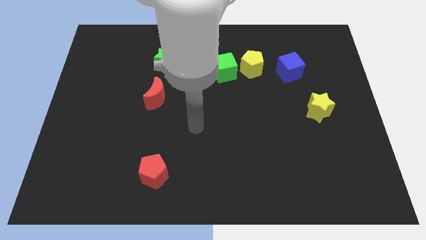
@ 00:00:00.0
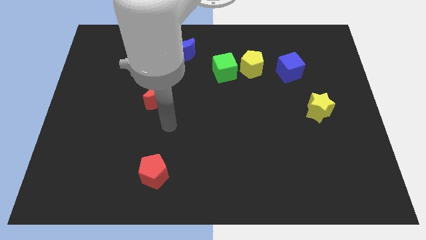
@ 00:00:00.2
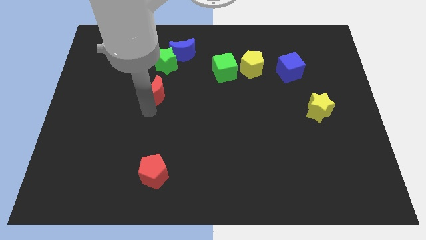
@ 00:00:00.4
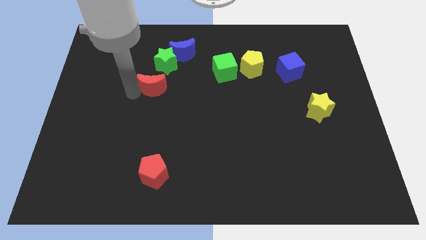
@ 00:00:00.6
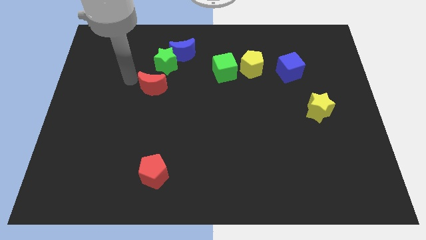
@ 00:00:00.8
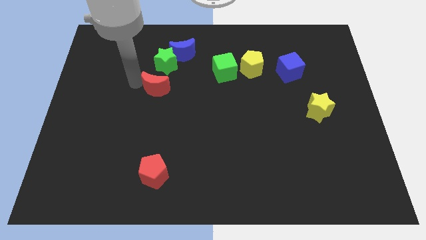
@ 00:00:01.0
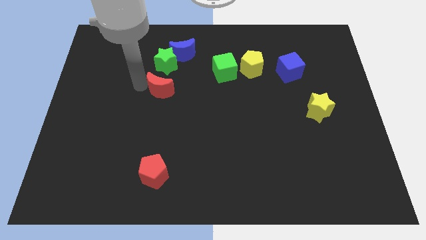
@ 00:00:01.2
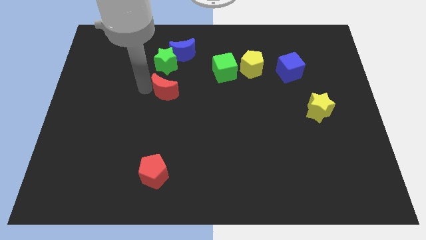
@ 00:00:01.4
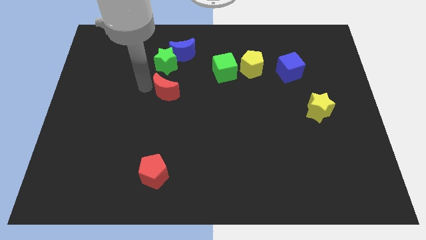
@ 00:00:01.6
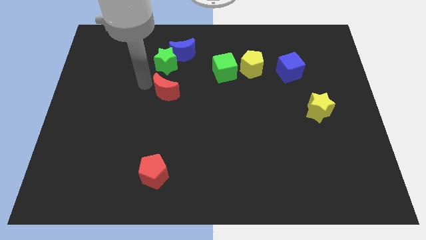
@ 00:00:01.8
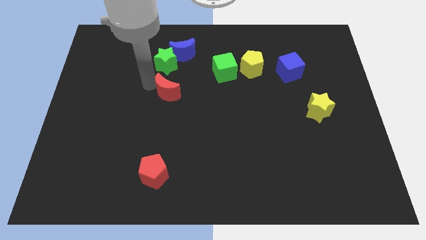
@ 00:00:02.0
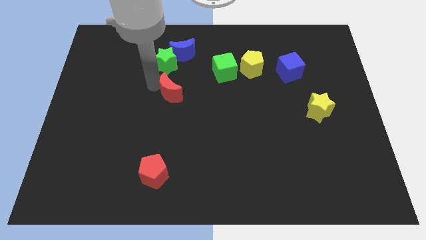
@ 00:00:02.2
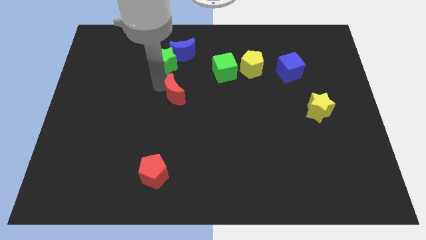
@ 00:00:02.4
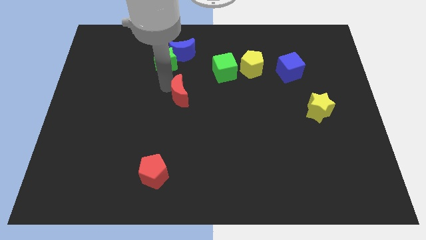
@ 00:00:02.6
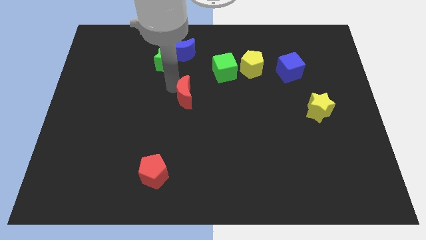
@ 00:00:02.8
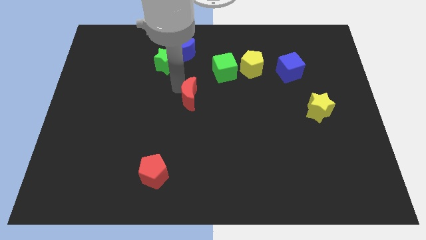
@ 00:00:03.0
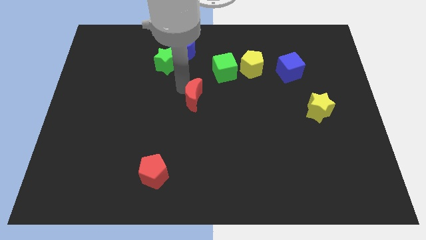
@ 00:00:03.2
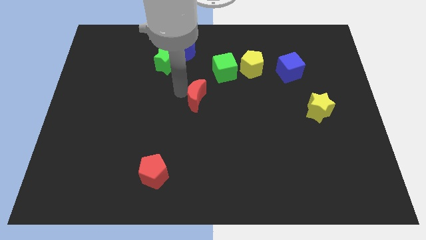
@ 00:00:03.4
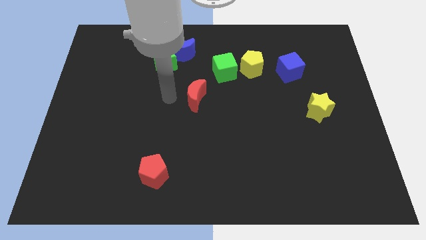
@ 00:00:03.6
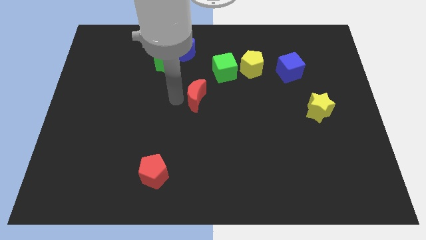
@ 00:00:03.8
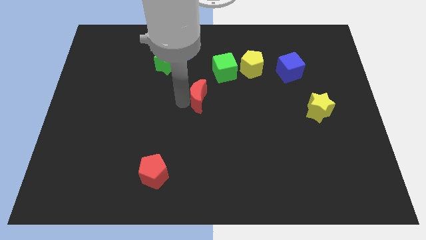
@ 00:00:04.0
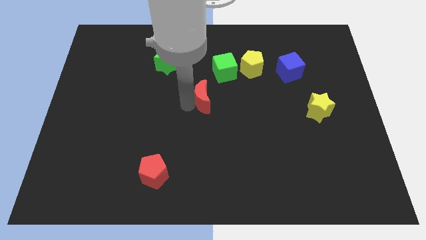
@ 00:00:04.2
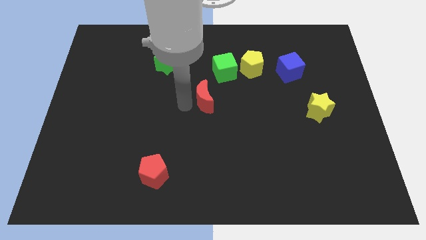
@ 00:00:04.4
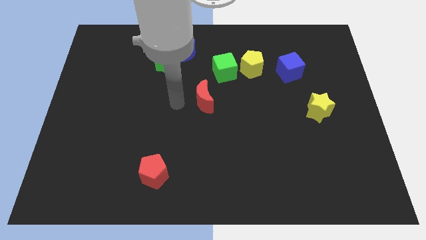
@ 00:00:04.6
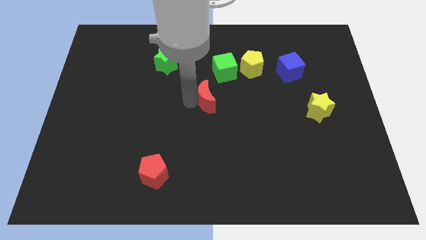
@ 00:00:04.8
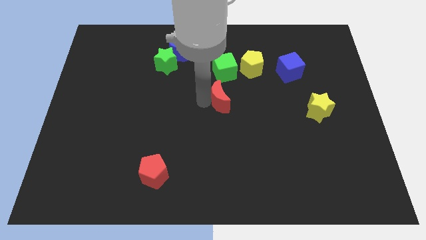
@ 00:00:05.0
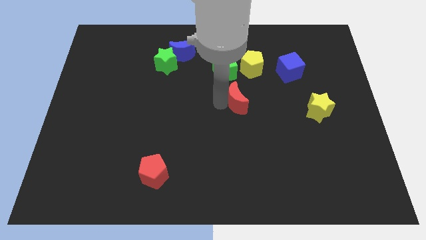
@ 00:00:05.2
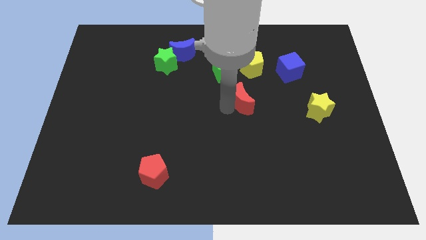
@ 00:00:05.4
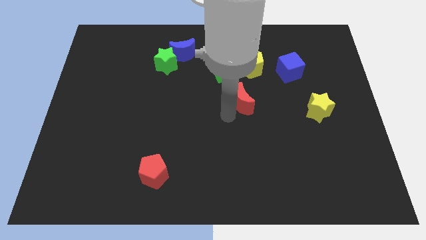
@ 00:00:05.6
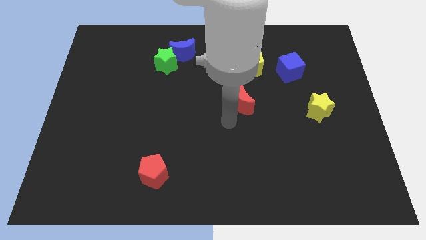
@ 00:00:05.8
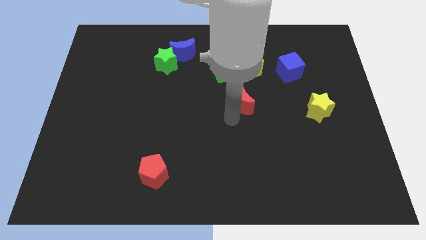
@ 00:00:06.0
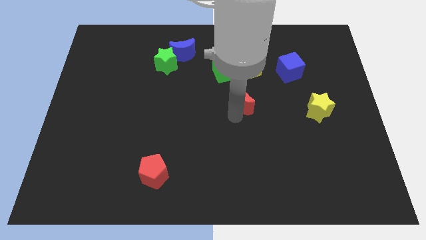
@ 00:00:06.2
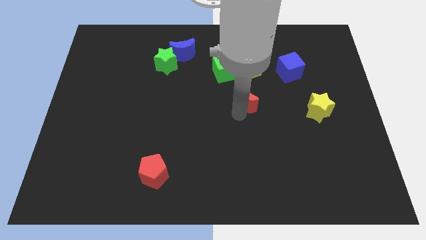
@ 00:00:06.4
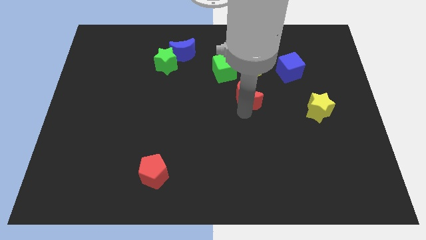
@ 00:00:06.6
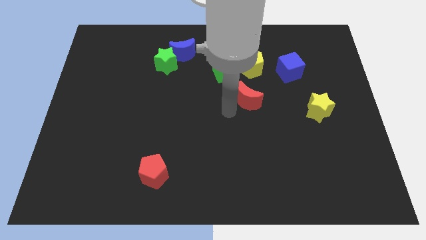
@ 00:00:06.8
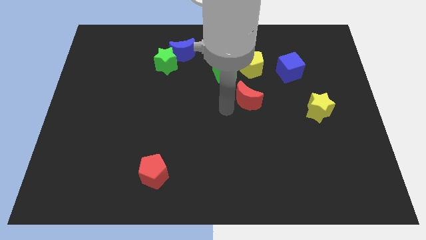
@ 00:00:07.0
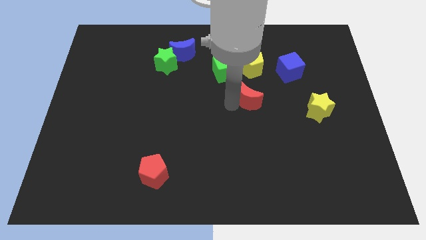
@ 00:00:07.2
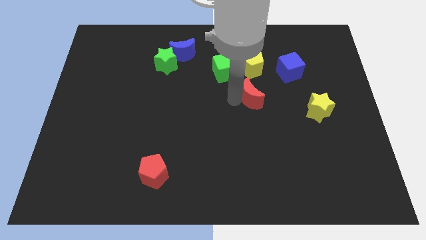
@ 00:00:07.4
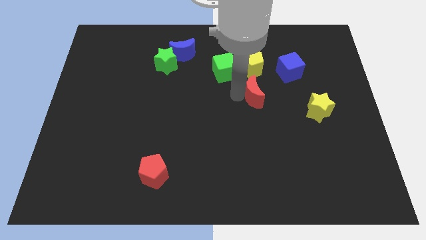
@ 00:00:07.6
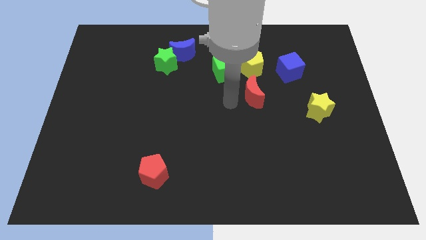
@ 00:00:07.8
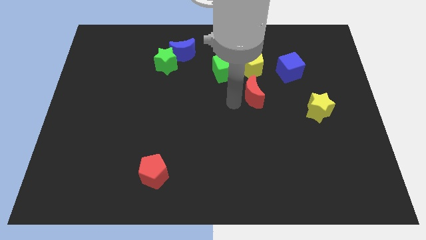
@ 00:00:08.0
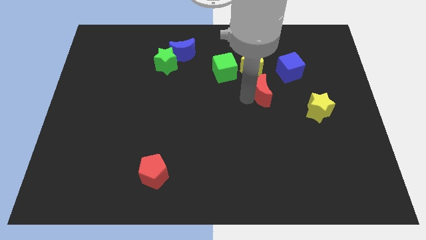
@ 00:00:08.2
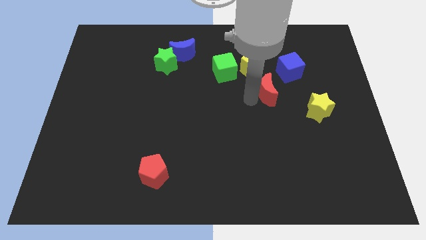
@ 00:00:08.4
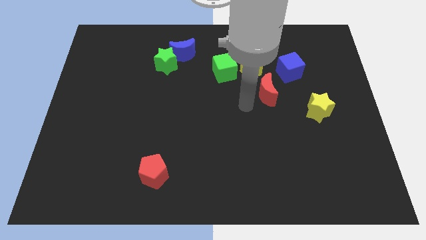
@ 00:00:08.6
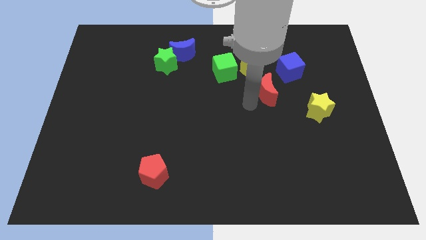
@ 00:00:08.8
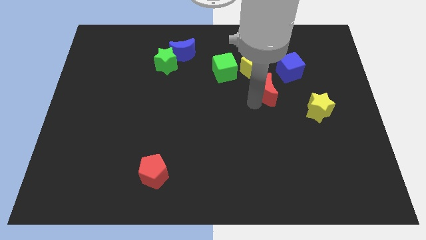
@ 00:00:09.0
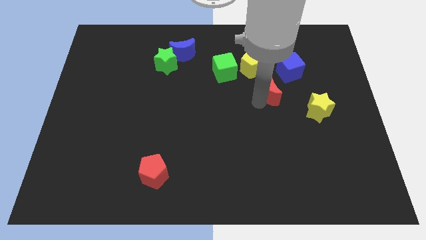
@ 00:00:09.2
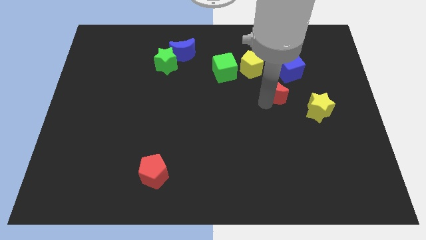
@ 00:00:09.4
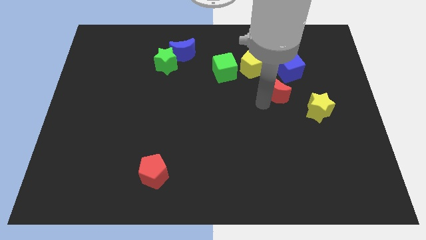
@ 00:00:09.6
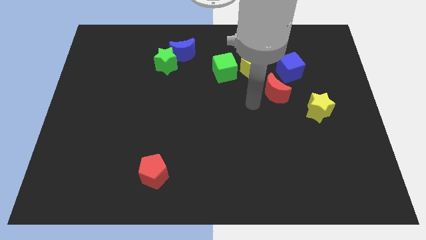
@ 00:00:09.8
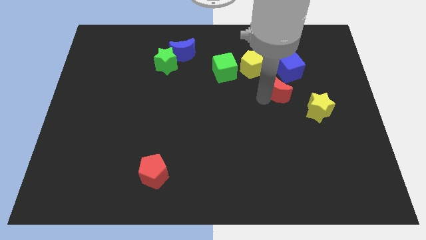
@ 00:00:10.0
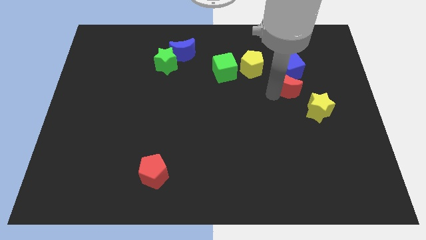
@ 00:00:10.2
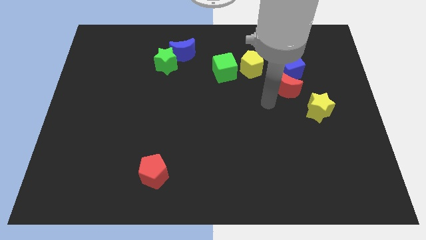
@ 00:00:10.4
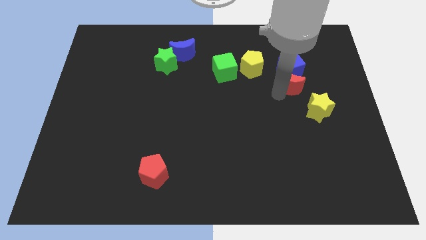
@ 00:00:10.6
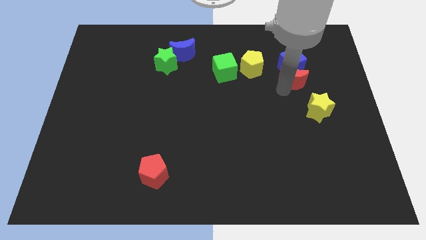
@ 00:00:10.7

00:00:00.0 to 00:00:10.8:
put the red moon to the right side of the yellow pentagon

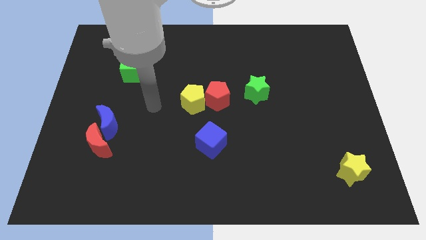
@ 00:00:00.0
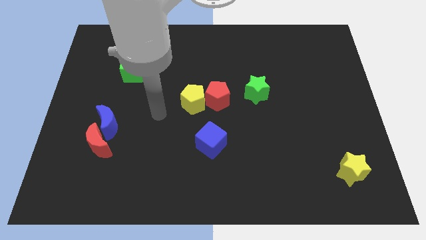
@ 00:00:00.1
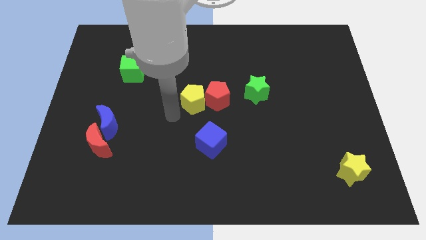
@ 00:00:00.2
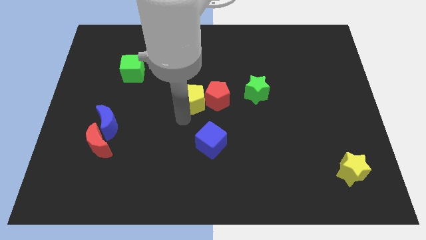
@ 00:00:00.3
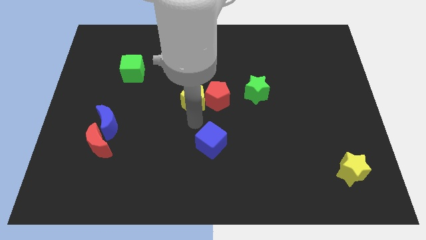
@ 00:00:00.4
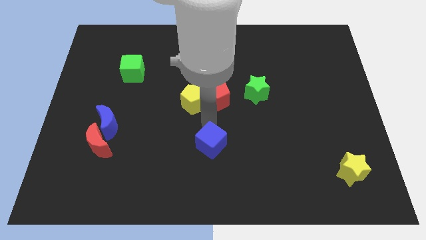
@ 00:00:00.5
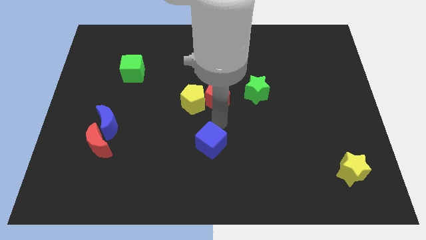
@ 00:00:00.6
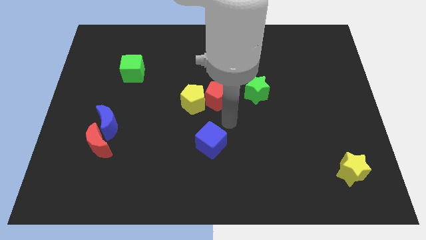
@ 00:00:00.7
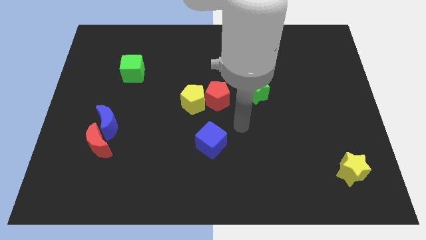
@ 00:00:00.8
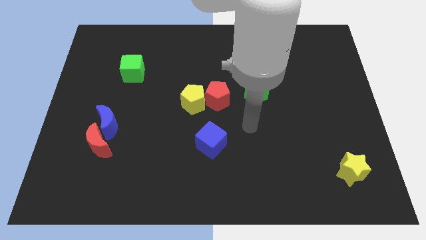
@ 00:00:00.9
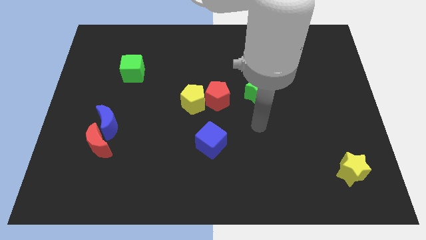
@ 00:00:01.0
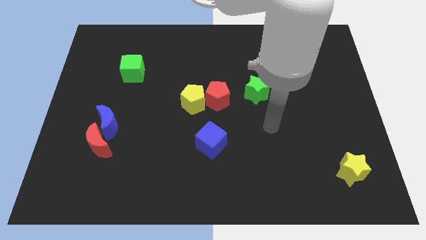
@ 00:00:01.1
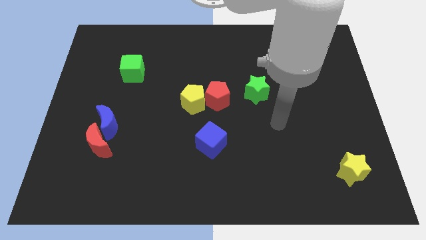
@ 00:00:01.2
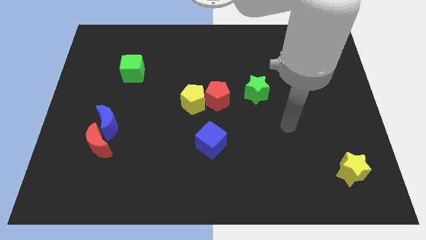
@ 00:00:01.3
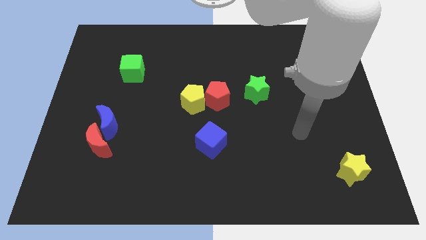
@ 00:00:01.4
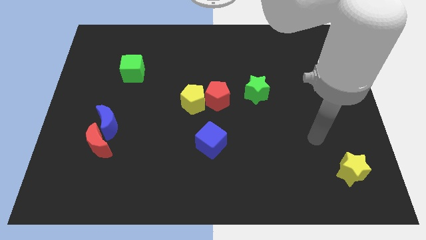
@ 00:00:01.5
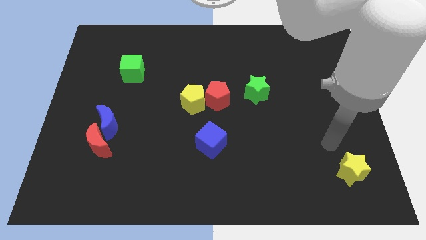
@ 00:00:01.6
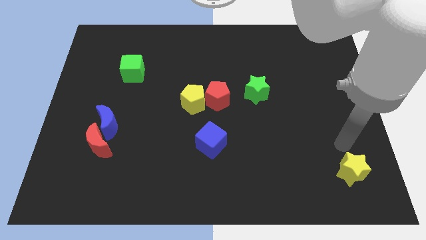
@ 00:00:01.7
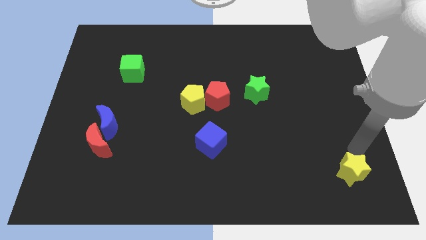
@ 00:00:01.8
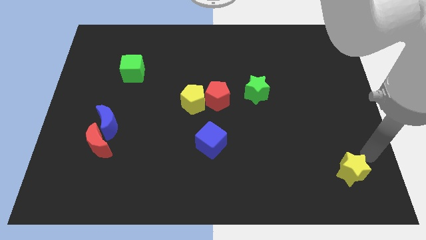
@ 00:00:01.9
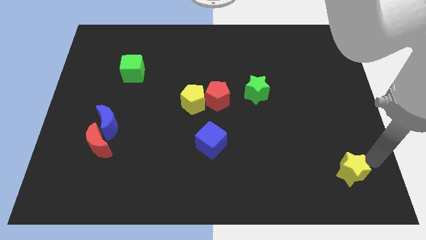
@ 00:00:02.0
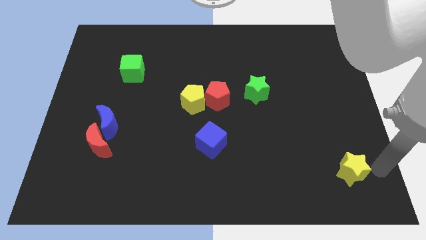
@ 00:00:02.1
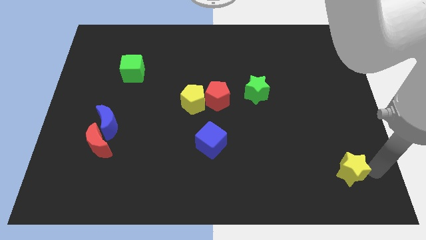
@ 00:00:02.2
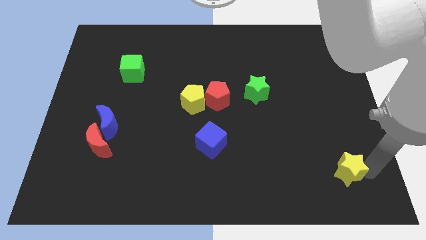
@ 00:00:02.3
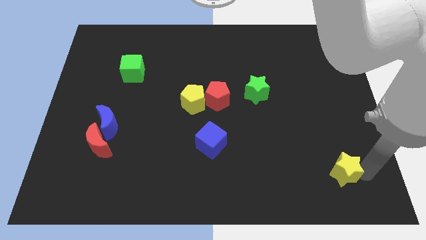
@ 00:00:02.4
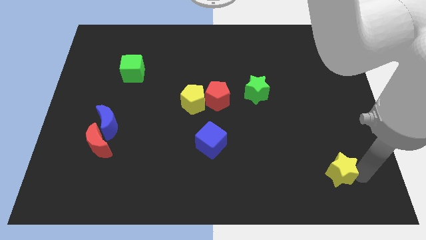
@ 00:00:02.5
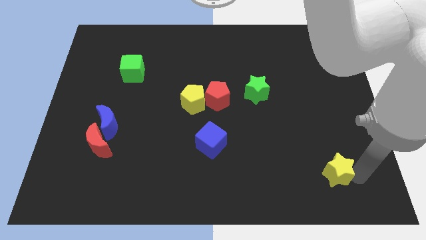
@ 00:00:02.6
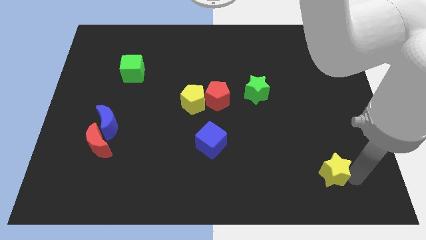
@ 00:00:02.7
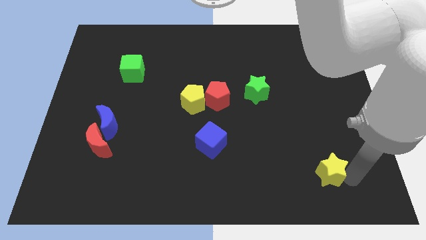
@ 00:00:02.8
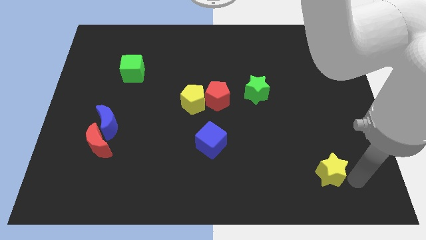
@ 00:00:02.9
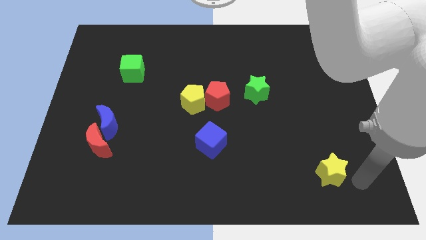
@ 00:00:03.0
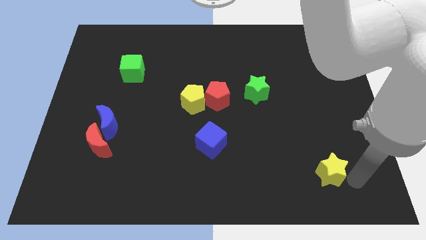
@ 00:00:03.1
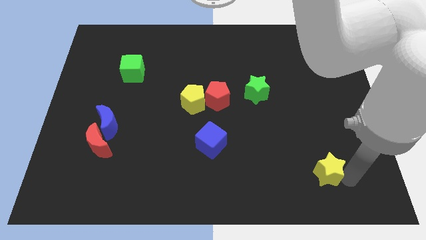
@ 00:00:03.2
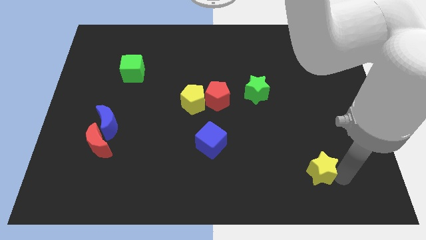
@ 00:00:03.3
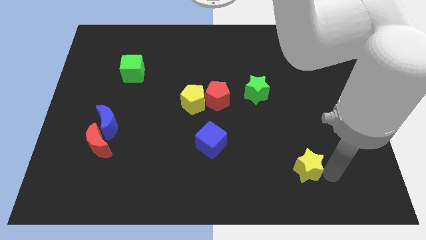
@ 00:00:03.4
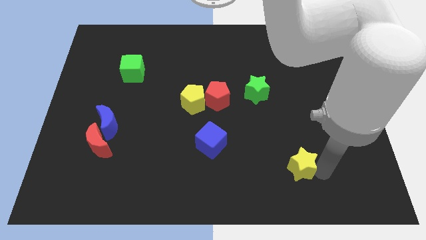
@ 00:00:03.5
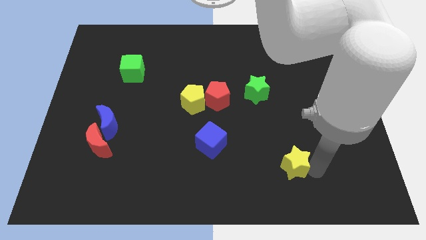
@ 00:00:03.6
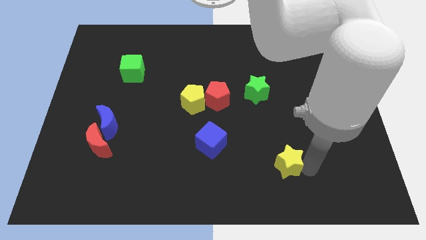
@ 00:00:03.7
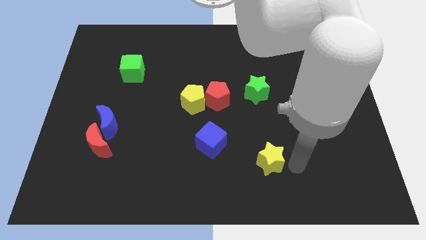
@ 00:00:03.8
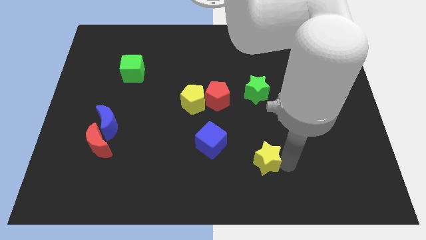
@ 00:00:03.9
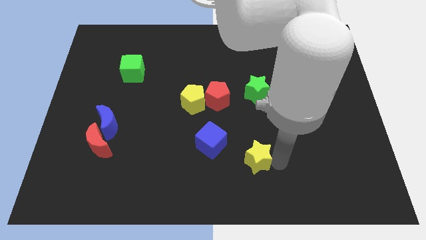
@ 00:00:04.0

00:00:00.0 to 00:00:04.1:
push the yellow star to the bottom right side of the blue cube
